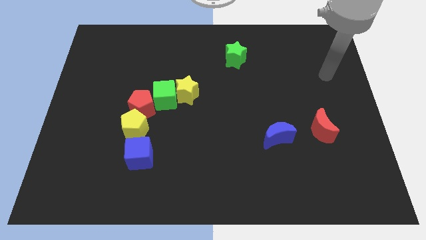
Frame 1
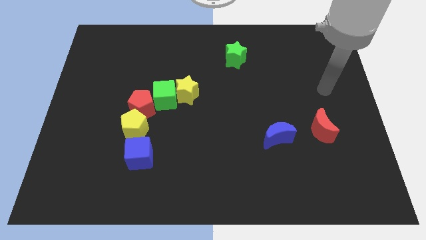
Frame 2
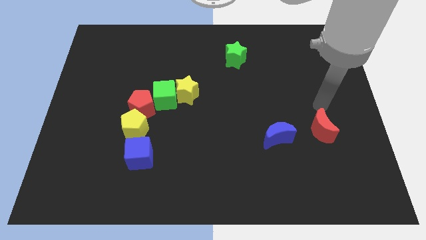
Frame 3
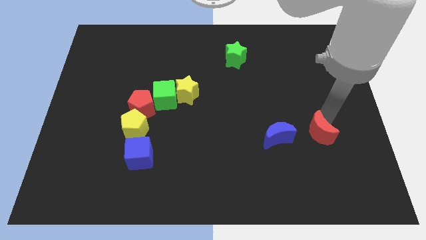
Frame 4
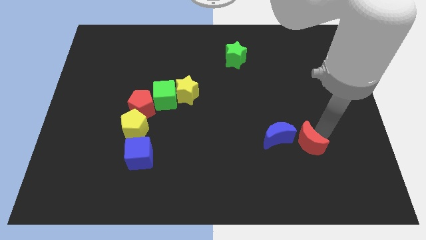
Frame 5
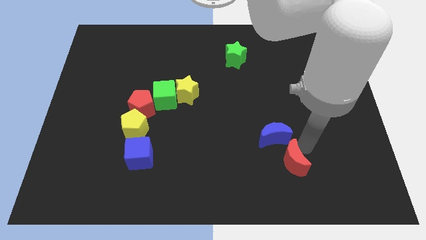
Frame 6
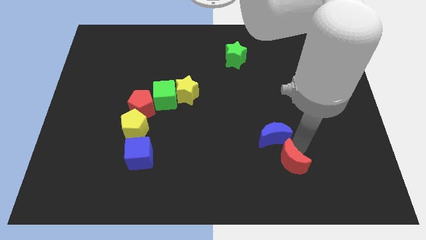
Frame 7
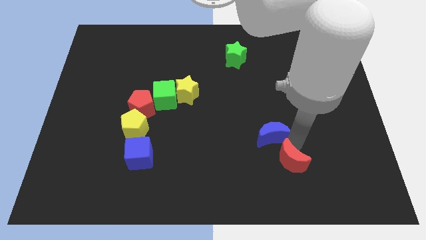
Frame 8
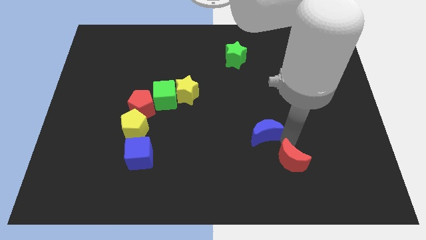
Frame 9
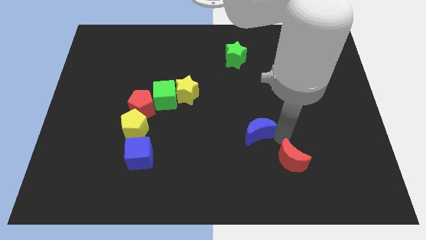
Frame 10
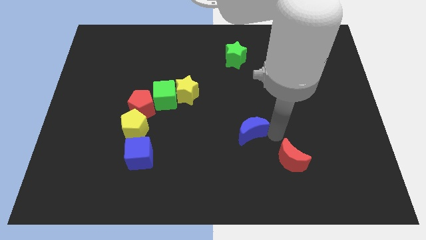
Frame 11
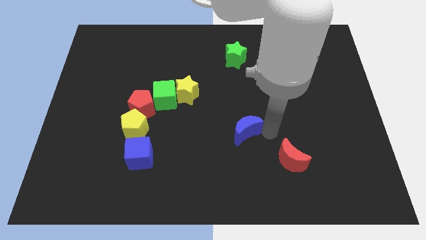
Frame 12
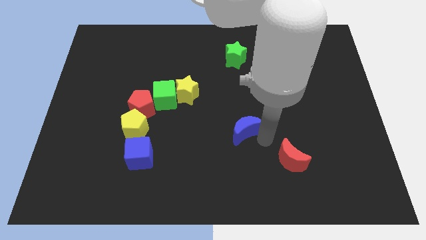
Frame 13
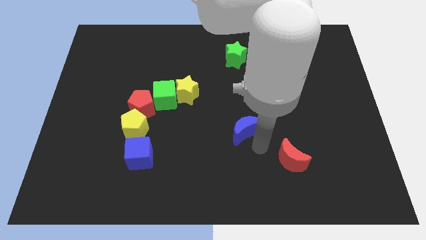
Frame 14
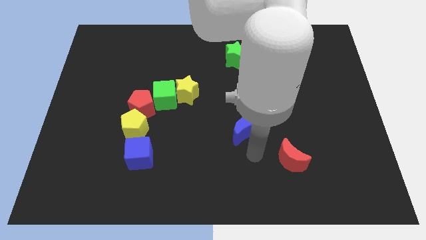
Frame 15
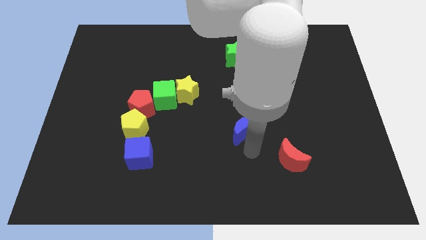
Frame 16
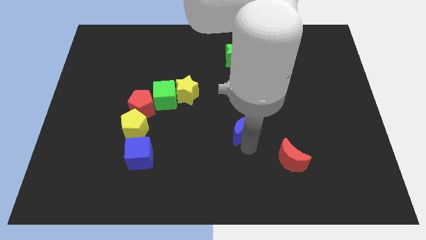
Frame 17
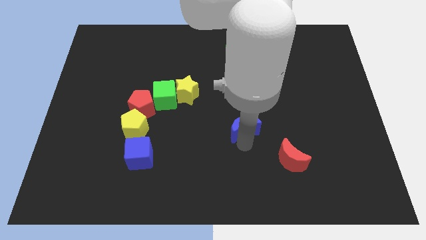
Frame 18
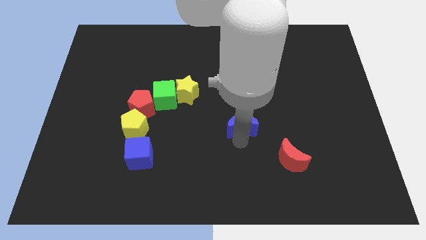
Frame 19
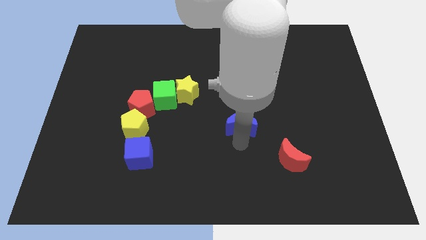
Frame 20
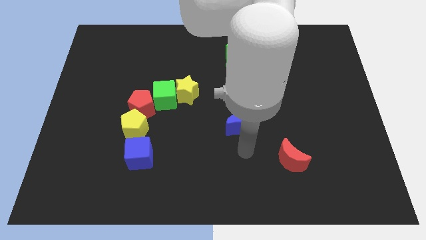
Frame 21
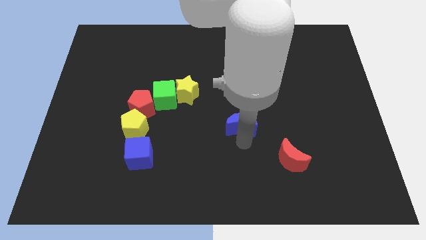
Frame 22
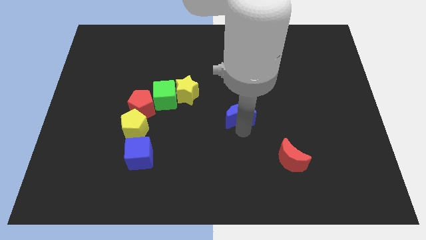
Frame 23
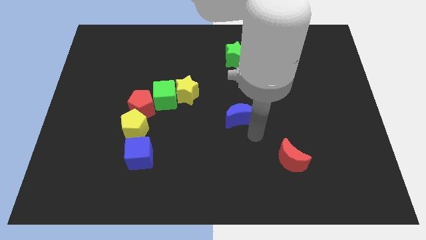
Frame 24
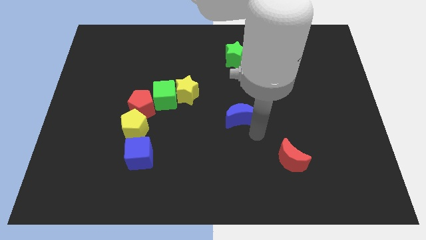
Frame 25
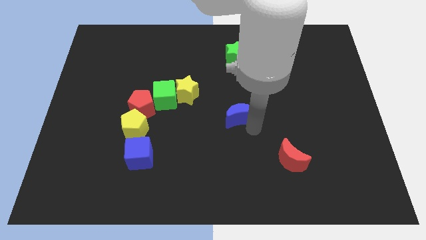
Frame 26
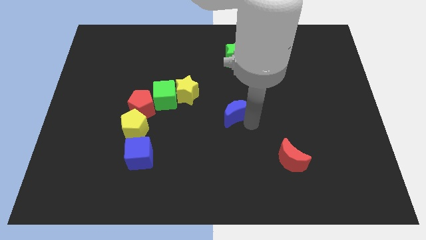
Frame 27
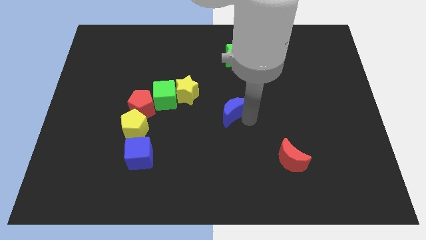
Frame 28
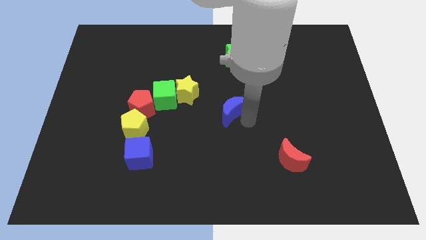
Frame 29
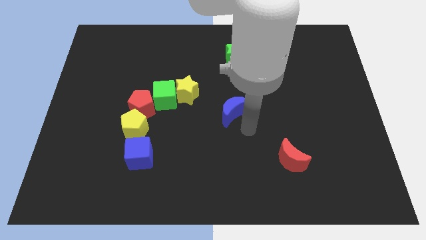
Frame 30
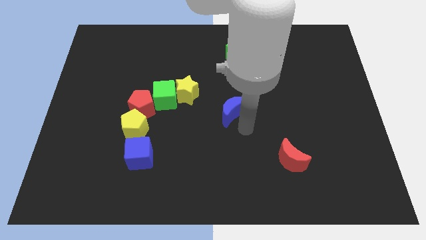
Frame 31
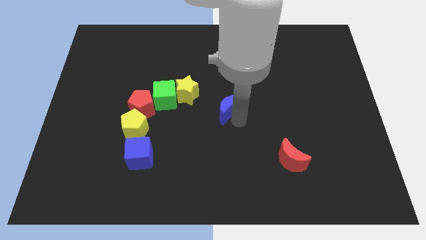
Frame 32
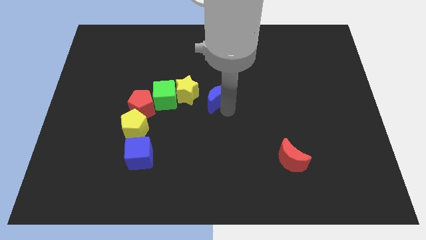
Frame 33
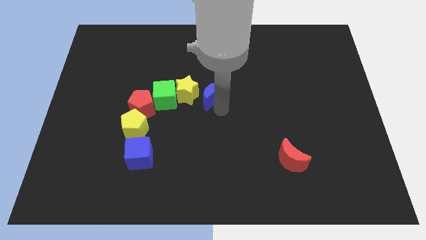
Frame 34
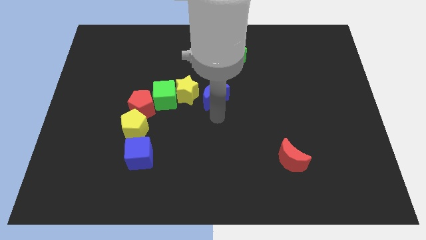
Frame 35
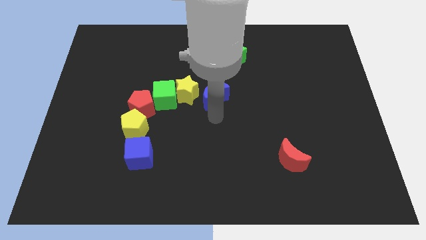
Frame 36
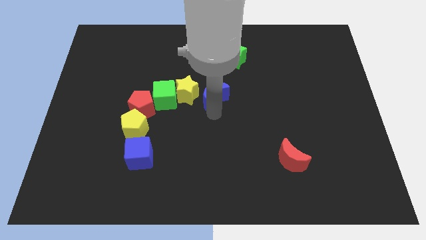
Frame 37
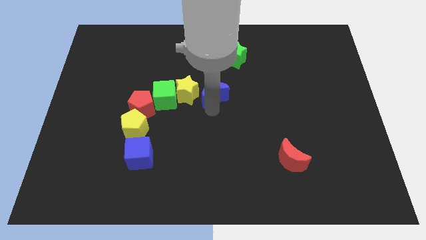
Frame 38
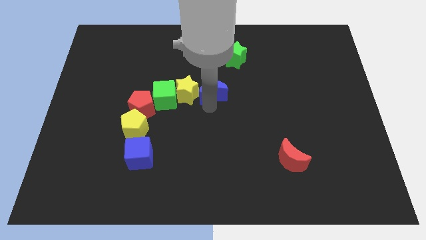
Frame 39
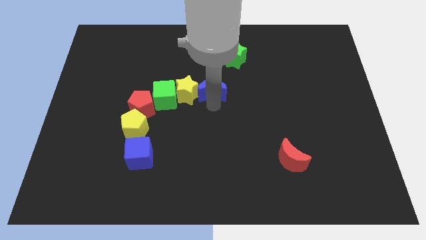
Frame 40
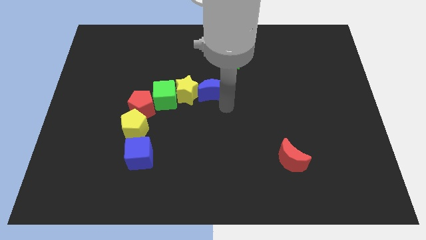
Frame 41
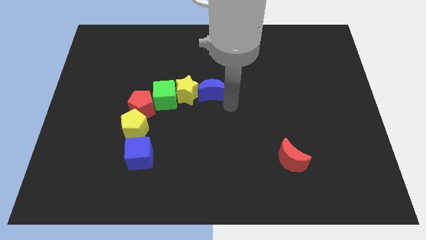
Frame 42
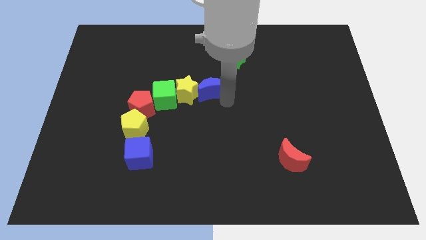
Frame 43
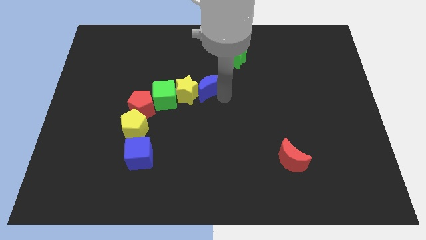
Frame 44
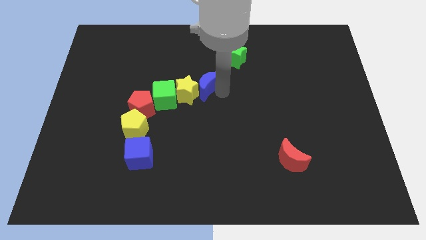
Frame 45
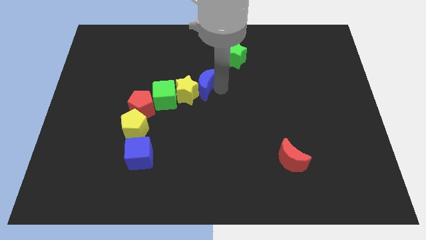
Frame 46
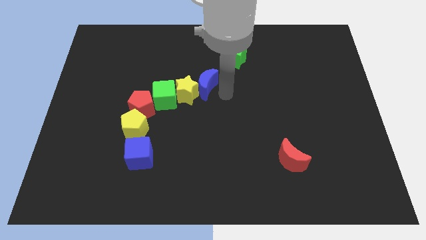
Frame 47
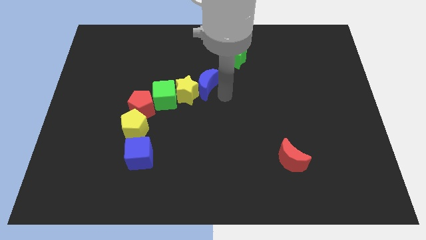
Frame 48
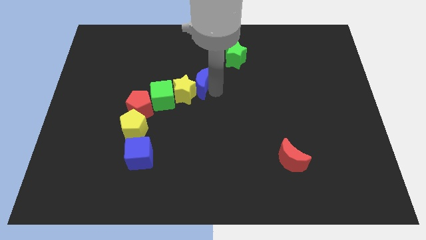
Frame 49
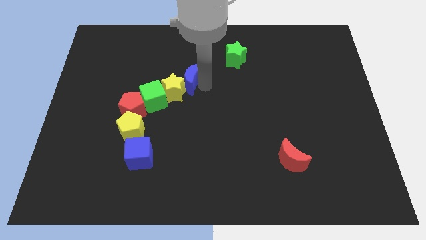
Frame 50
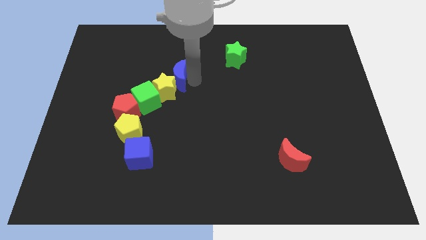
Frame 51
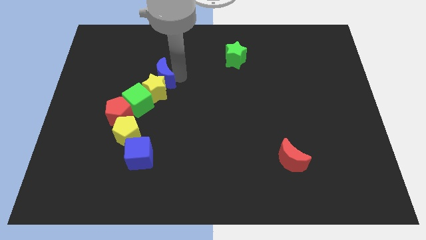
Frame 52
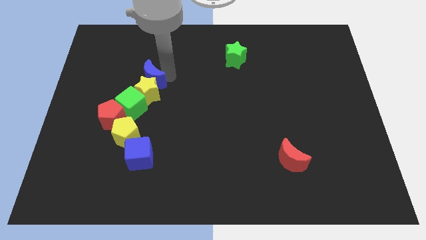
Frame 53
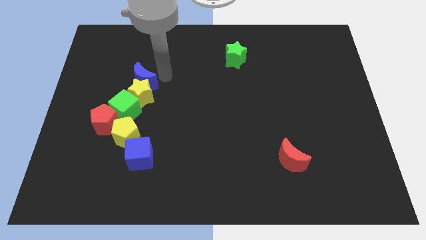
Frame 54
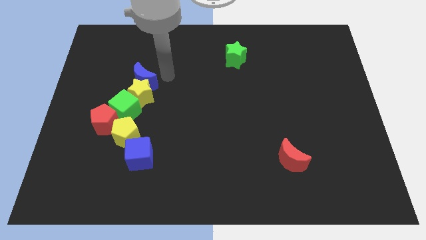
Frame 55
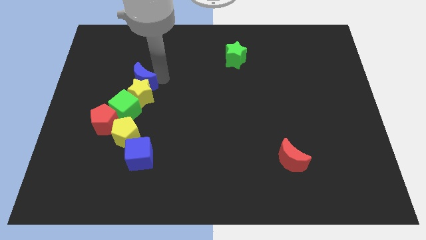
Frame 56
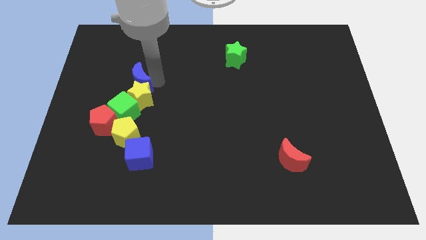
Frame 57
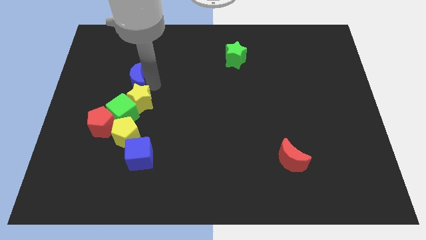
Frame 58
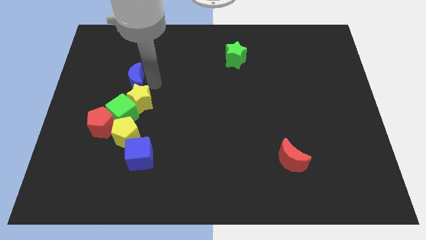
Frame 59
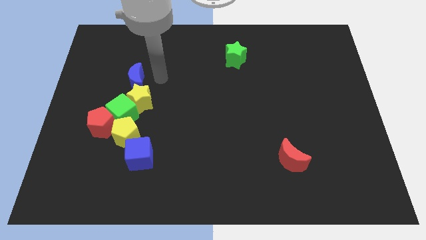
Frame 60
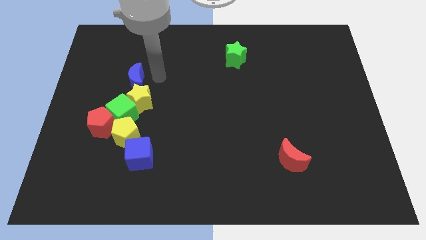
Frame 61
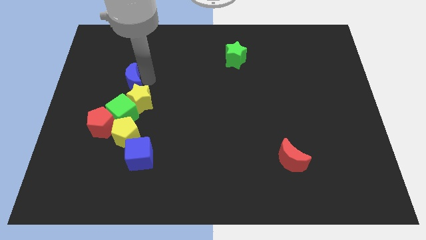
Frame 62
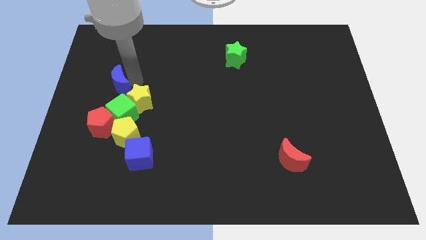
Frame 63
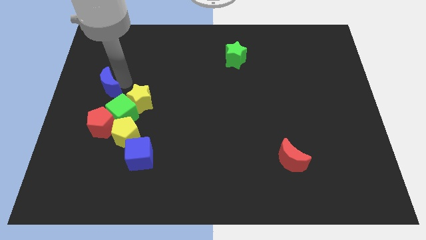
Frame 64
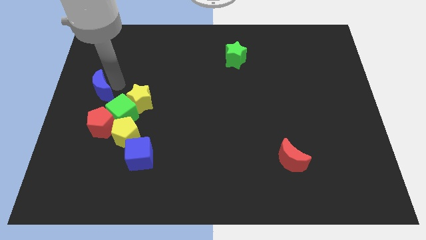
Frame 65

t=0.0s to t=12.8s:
put the blue moon to the center left
